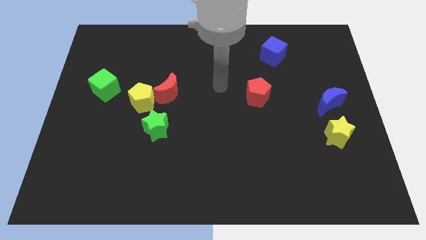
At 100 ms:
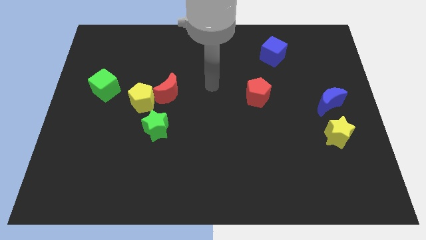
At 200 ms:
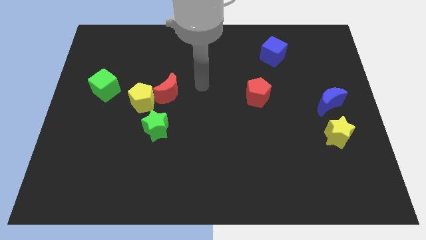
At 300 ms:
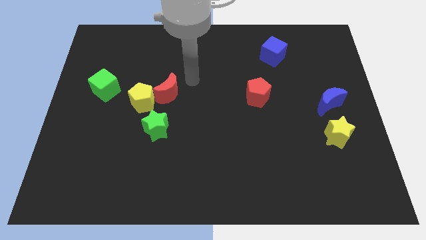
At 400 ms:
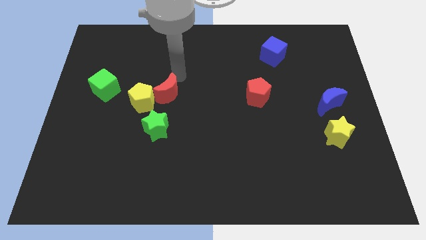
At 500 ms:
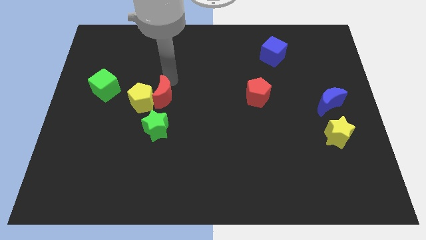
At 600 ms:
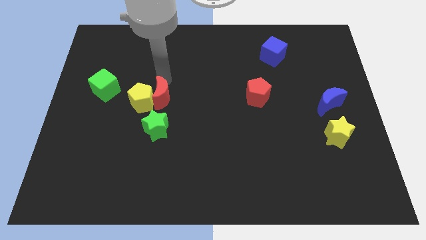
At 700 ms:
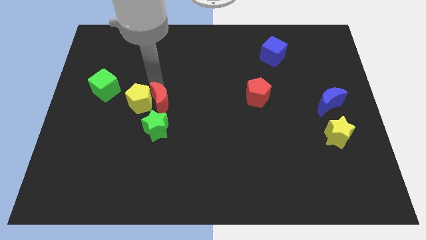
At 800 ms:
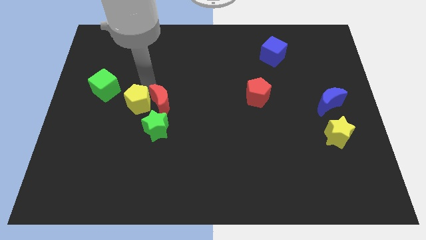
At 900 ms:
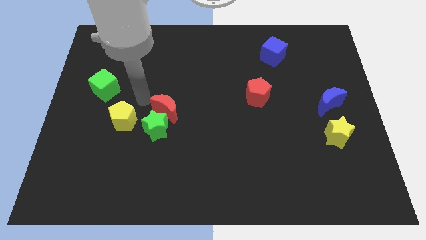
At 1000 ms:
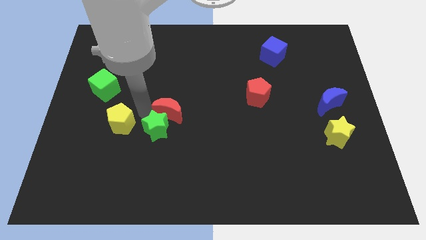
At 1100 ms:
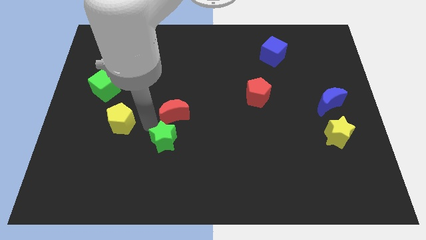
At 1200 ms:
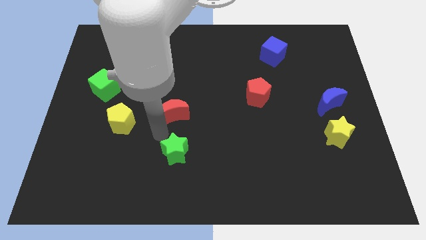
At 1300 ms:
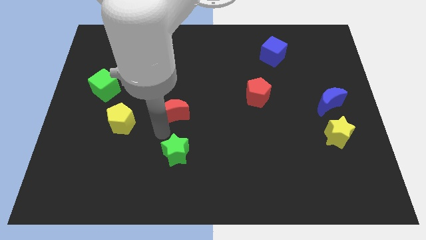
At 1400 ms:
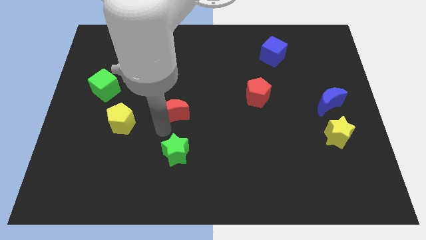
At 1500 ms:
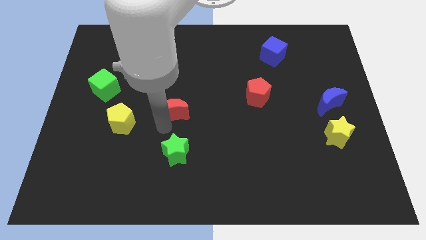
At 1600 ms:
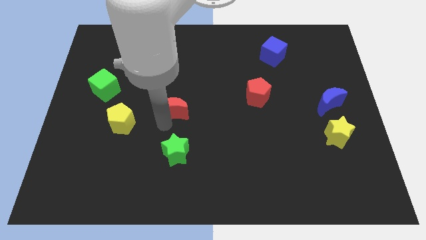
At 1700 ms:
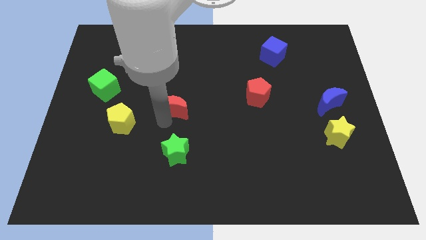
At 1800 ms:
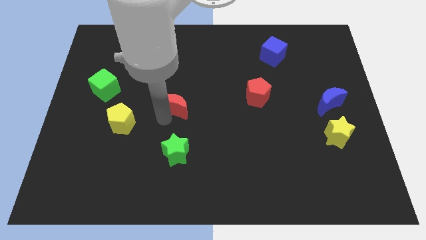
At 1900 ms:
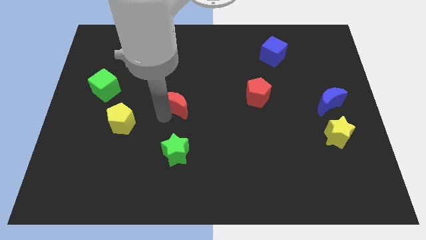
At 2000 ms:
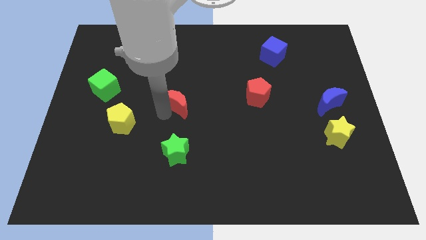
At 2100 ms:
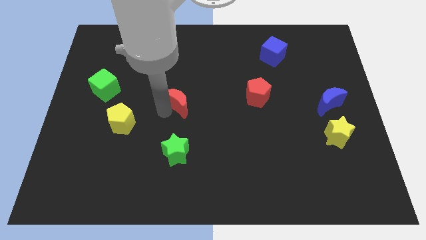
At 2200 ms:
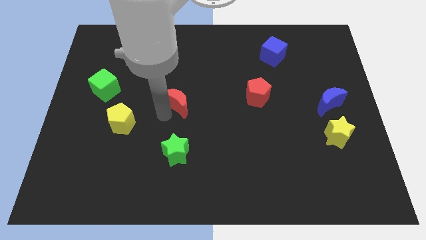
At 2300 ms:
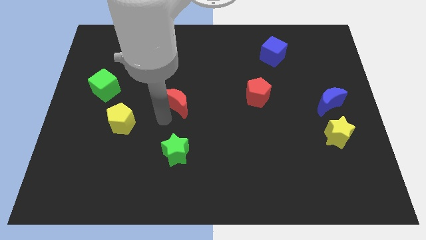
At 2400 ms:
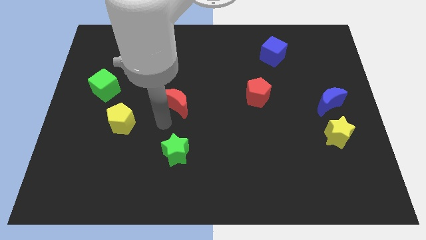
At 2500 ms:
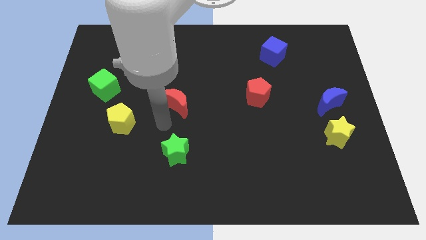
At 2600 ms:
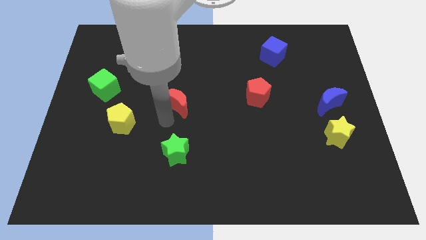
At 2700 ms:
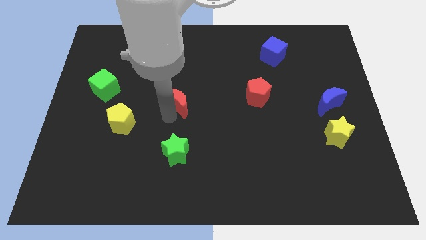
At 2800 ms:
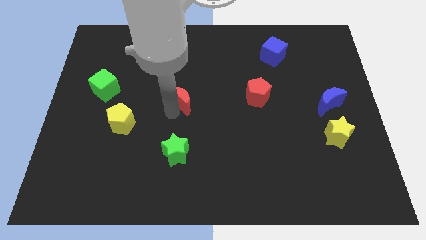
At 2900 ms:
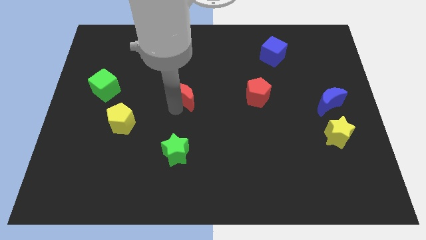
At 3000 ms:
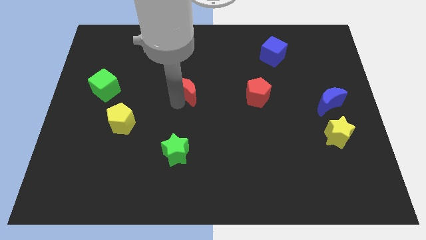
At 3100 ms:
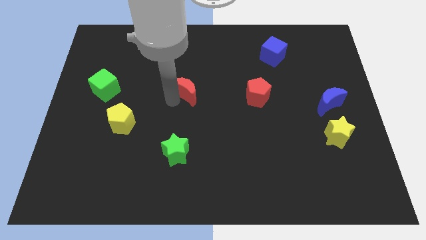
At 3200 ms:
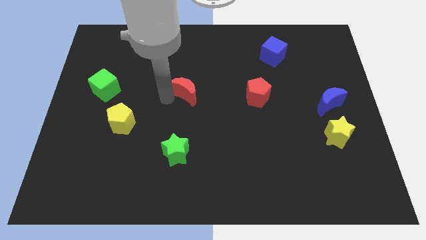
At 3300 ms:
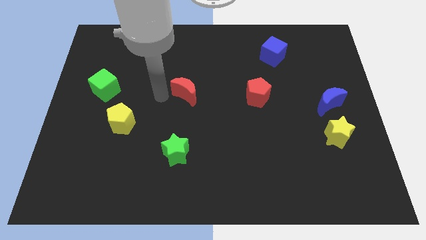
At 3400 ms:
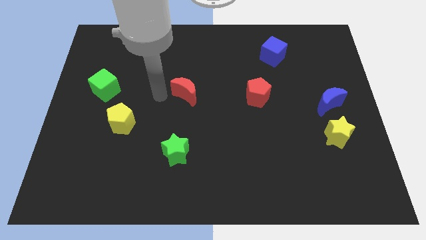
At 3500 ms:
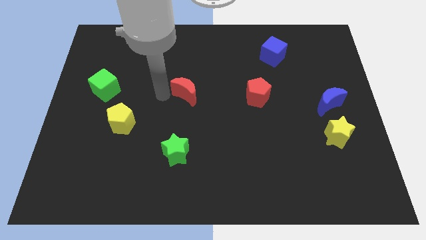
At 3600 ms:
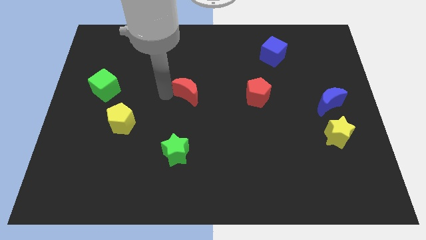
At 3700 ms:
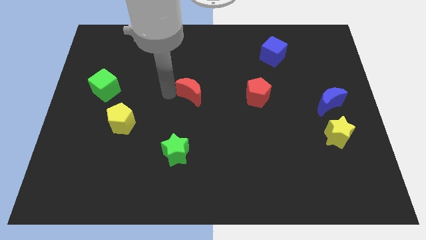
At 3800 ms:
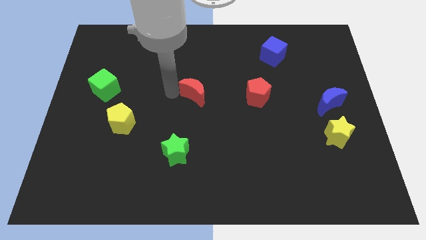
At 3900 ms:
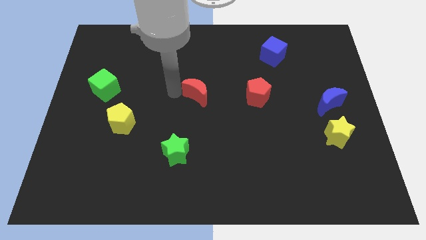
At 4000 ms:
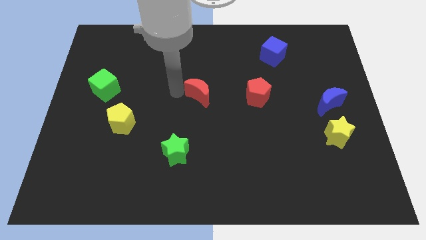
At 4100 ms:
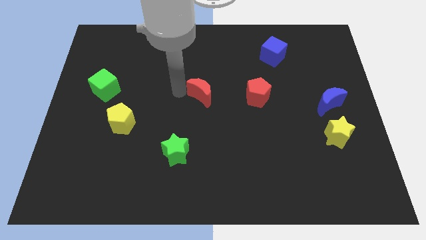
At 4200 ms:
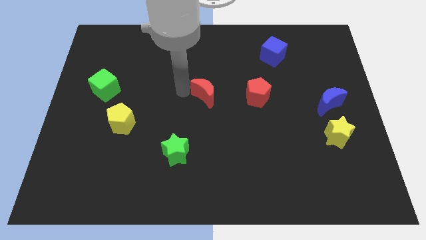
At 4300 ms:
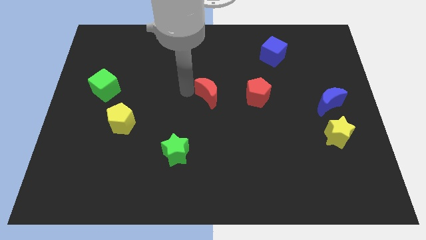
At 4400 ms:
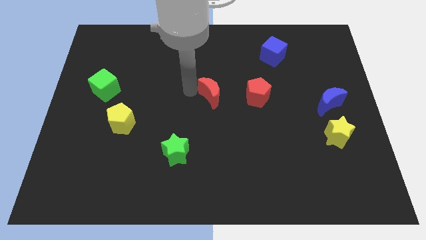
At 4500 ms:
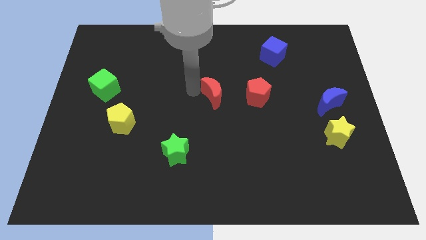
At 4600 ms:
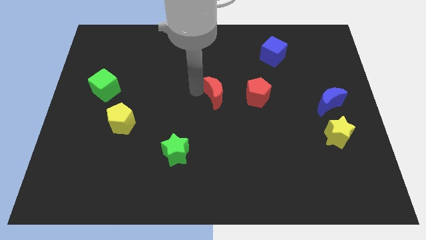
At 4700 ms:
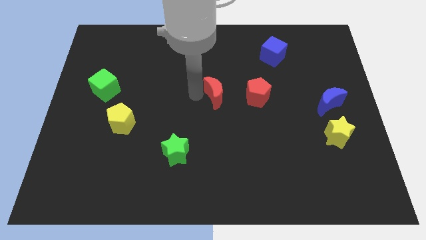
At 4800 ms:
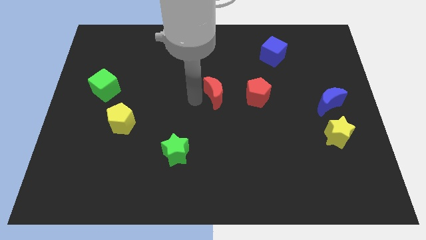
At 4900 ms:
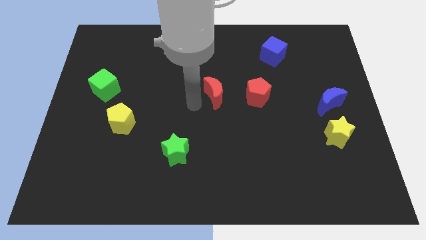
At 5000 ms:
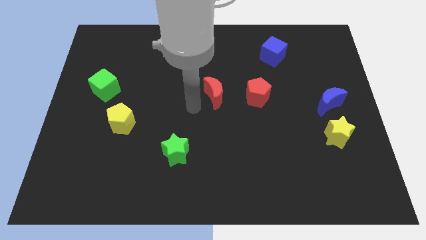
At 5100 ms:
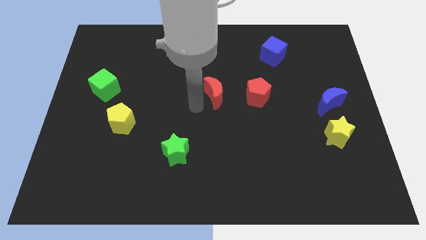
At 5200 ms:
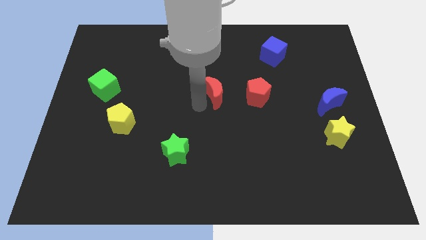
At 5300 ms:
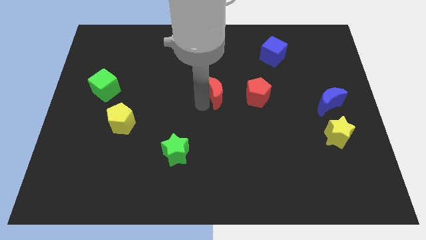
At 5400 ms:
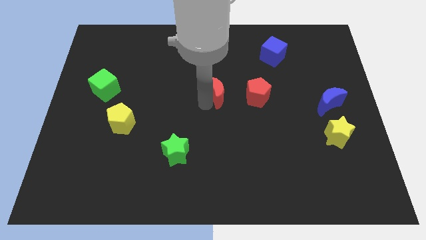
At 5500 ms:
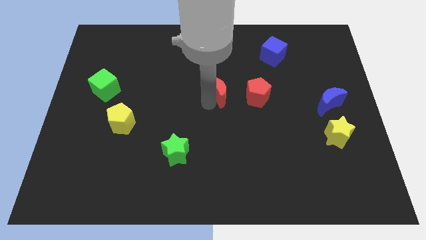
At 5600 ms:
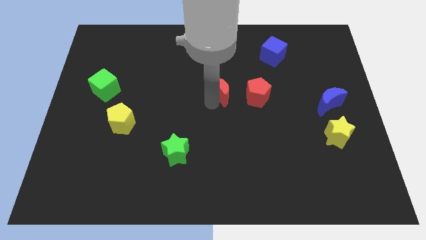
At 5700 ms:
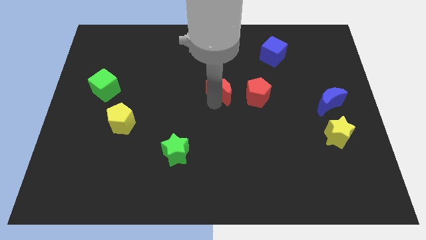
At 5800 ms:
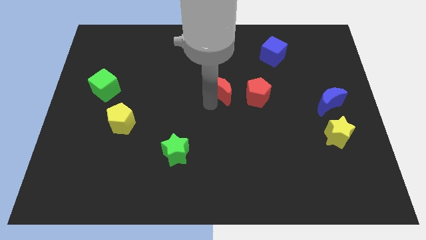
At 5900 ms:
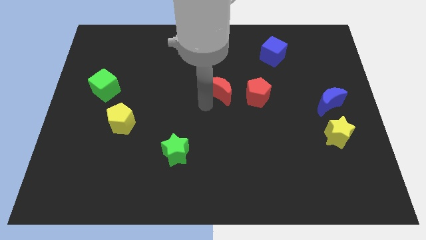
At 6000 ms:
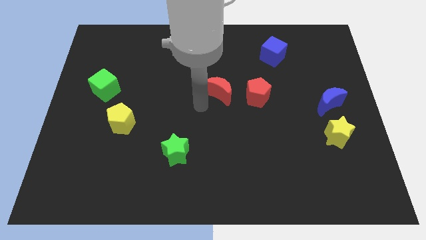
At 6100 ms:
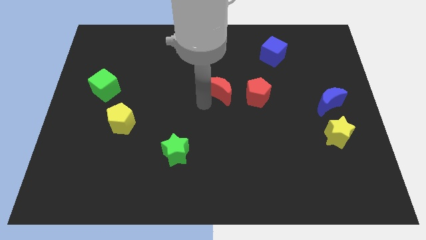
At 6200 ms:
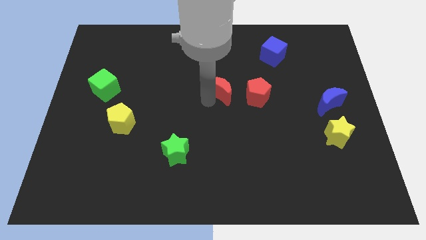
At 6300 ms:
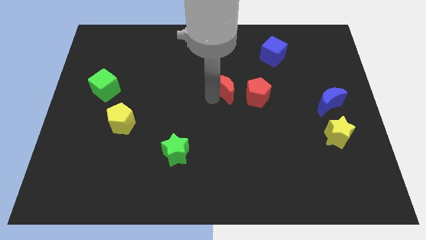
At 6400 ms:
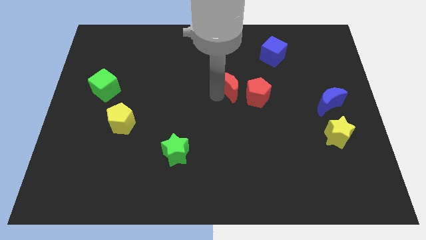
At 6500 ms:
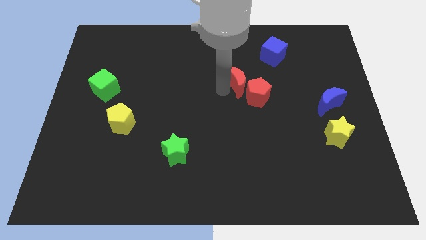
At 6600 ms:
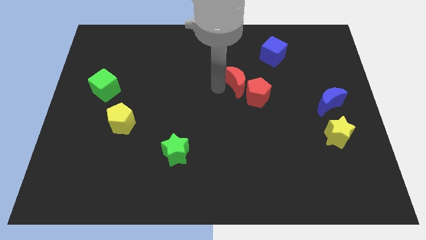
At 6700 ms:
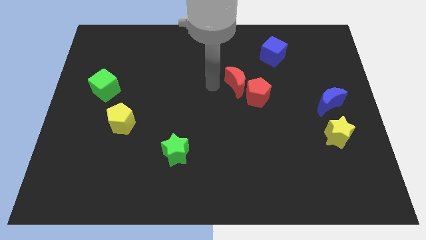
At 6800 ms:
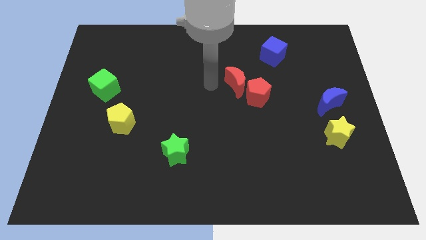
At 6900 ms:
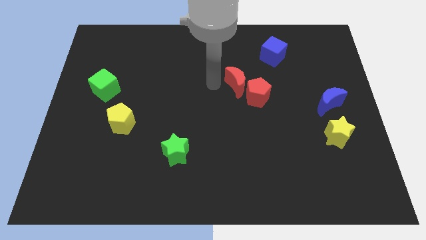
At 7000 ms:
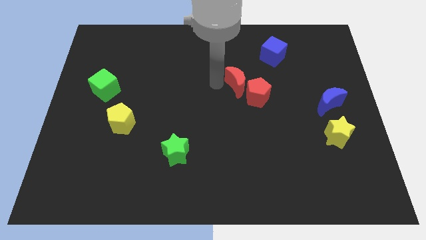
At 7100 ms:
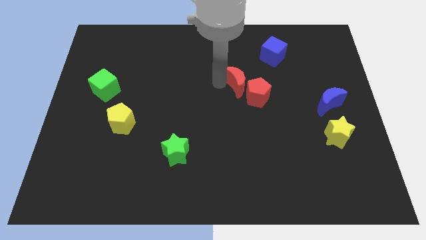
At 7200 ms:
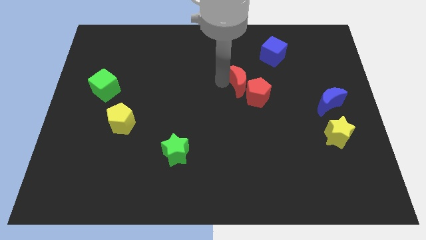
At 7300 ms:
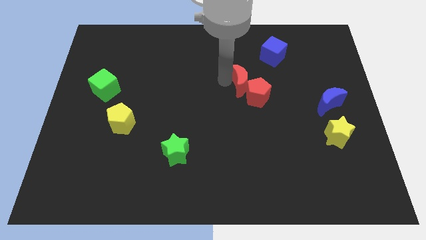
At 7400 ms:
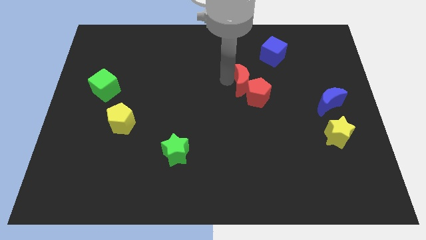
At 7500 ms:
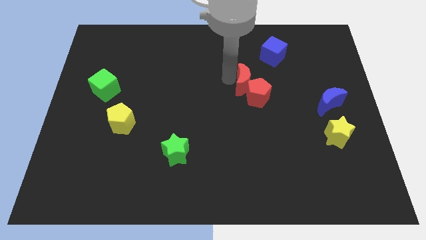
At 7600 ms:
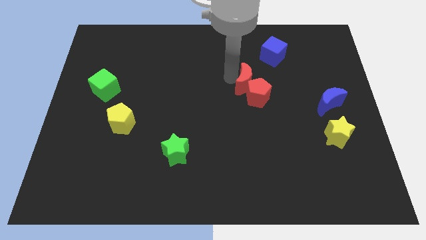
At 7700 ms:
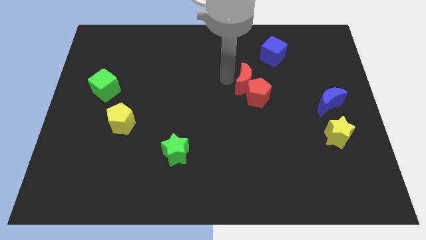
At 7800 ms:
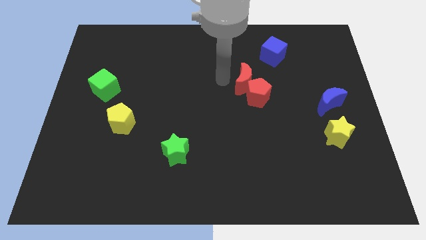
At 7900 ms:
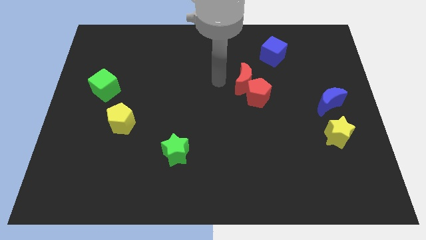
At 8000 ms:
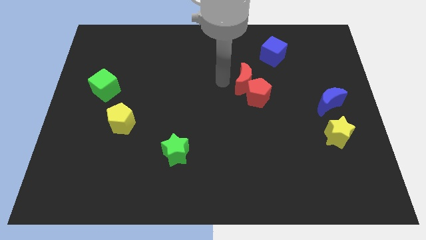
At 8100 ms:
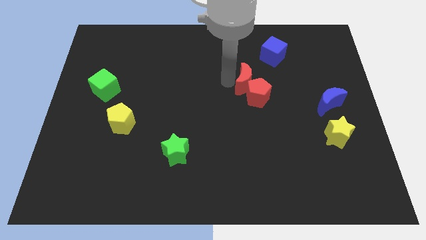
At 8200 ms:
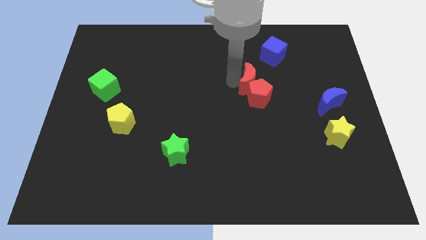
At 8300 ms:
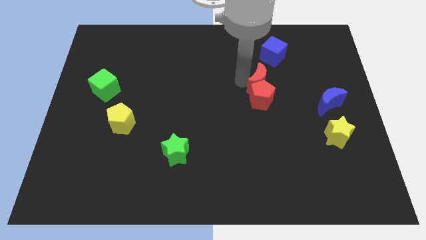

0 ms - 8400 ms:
push the red moon to the right
